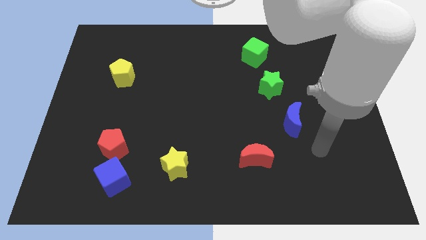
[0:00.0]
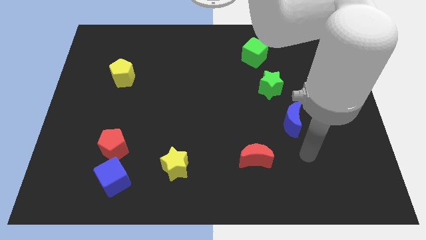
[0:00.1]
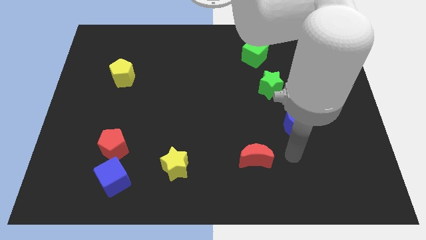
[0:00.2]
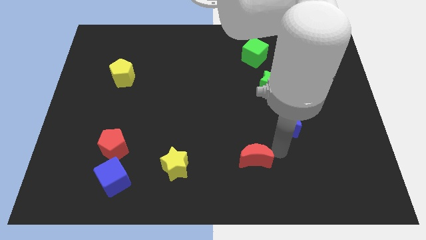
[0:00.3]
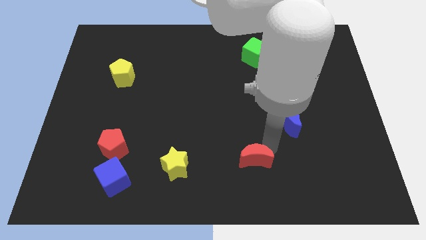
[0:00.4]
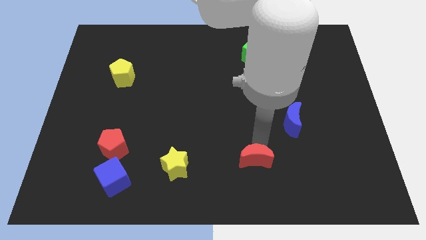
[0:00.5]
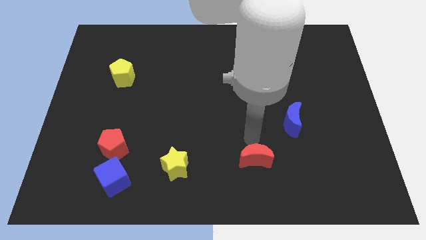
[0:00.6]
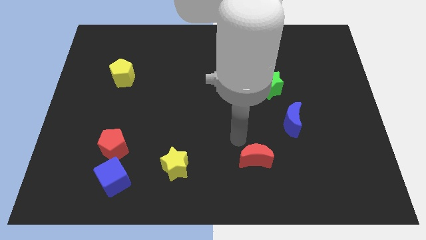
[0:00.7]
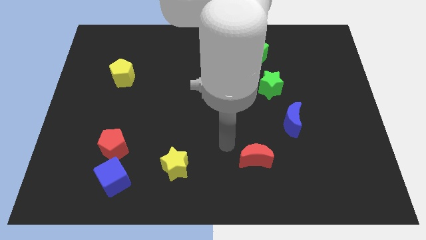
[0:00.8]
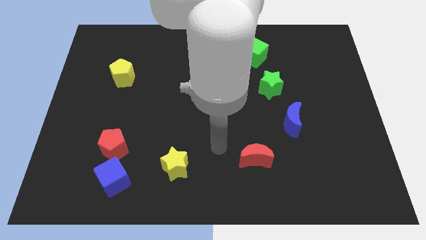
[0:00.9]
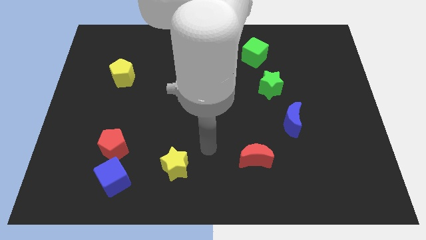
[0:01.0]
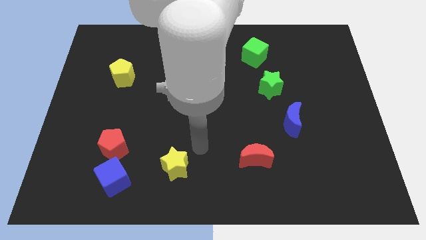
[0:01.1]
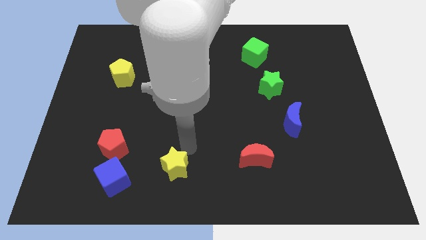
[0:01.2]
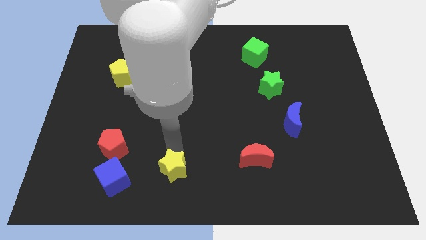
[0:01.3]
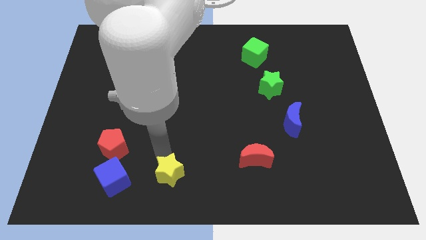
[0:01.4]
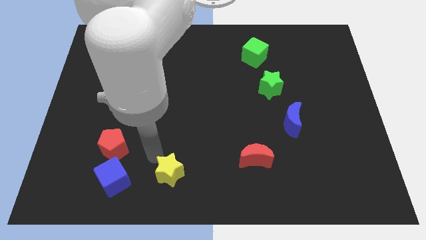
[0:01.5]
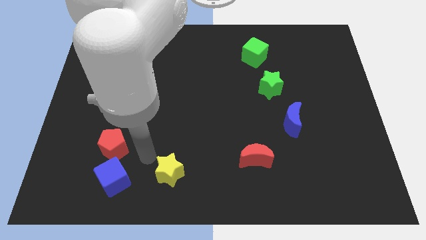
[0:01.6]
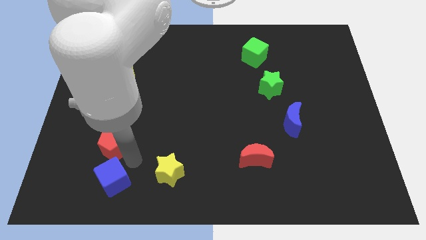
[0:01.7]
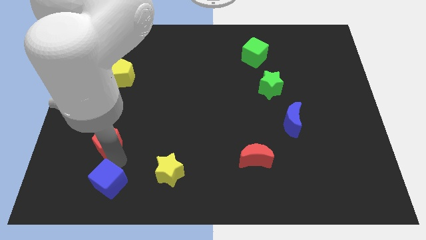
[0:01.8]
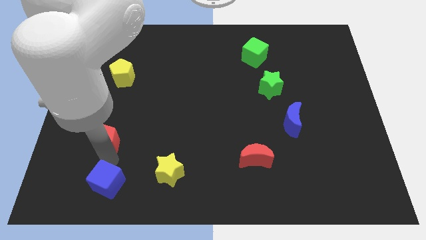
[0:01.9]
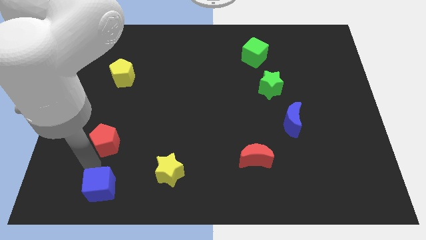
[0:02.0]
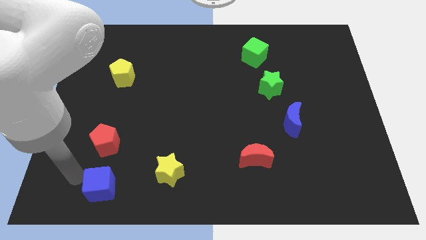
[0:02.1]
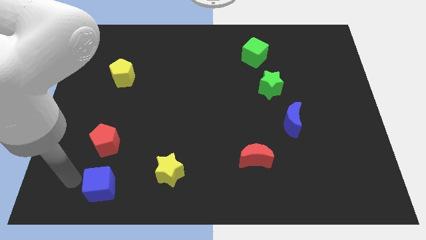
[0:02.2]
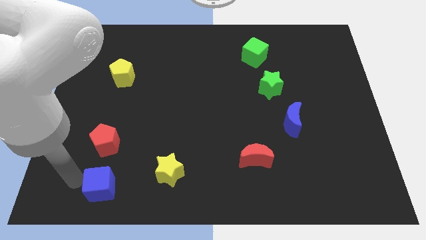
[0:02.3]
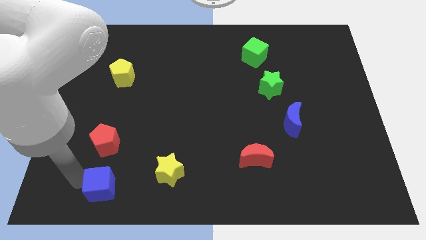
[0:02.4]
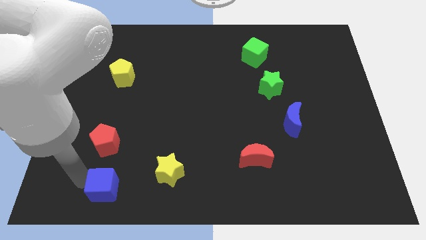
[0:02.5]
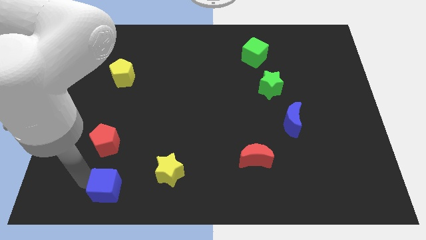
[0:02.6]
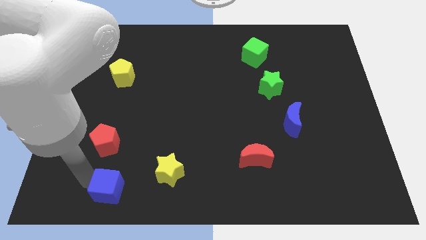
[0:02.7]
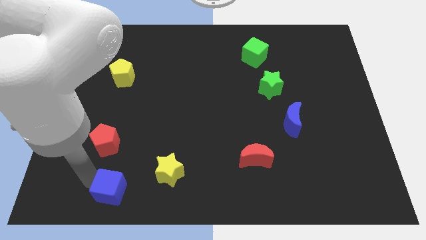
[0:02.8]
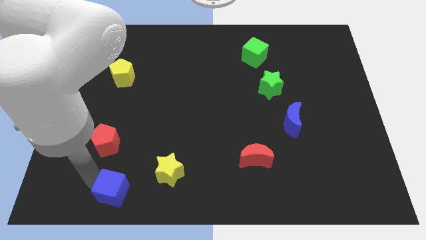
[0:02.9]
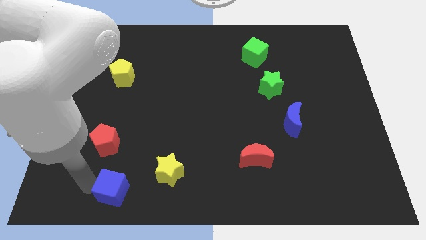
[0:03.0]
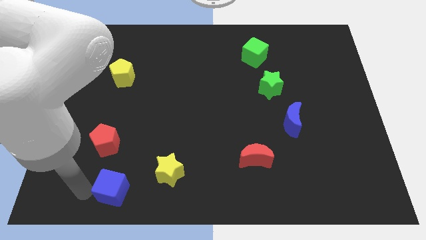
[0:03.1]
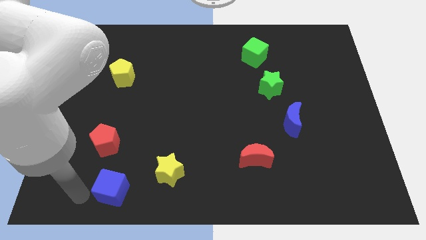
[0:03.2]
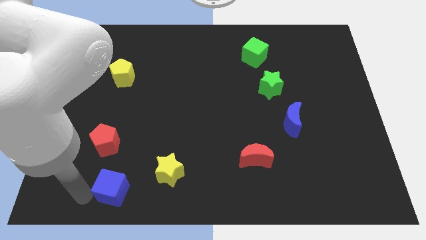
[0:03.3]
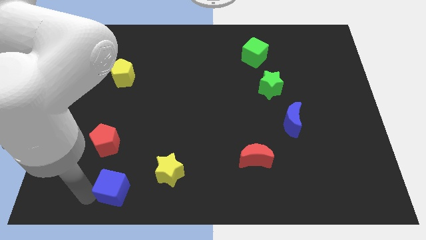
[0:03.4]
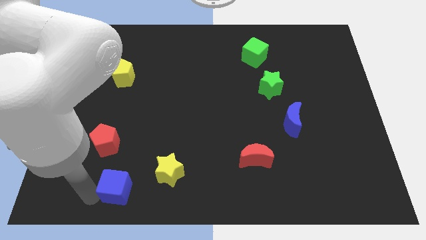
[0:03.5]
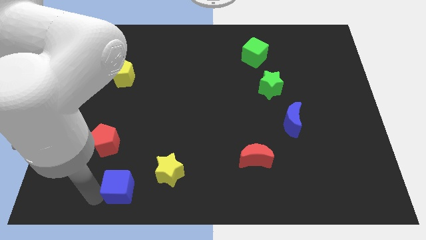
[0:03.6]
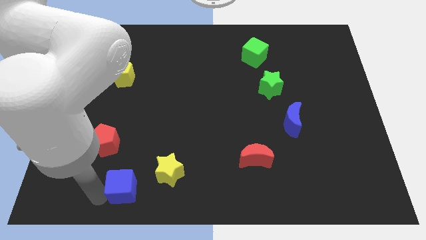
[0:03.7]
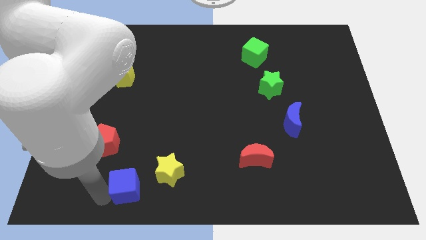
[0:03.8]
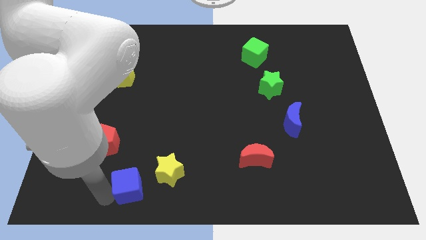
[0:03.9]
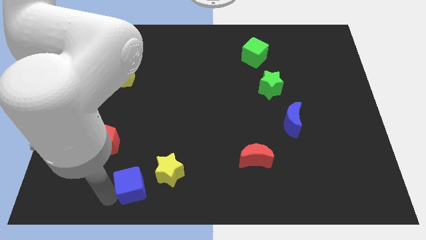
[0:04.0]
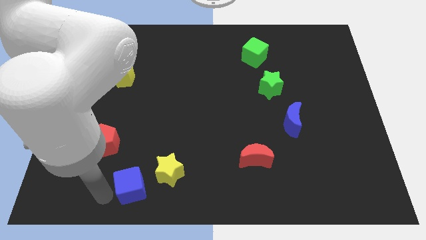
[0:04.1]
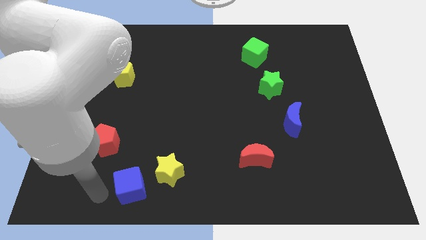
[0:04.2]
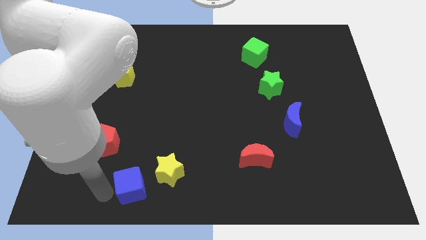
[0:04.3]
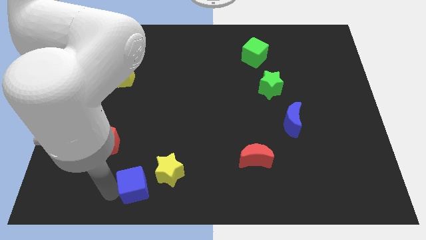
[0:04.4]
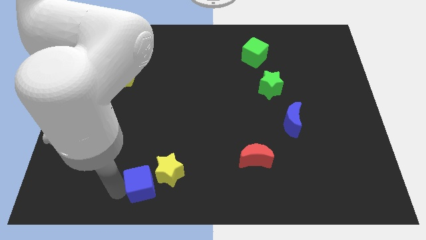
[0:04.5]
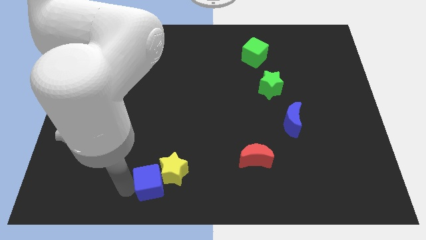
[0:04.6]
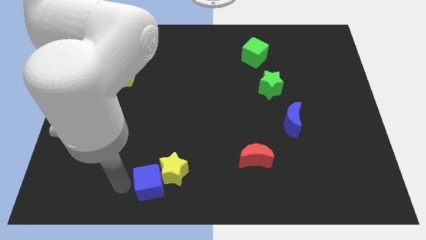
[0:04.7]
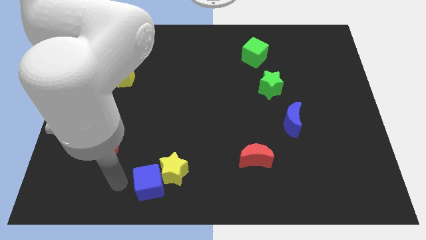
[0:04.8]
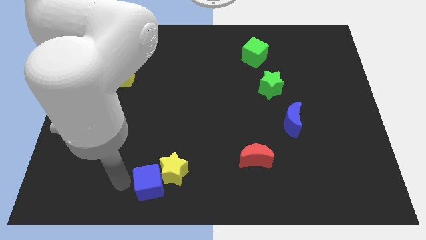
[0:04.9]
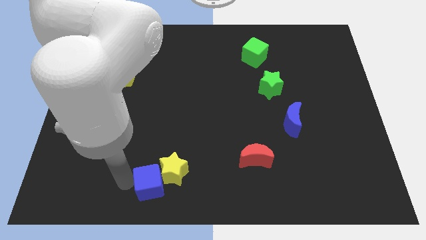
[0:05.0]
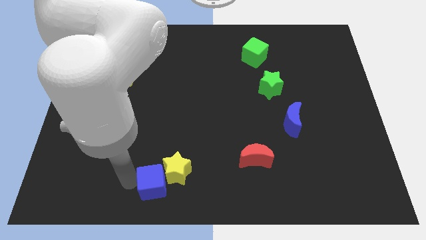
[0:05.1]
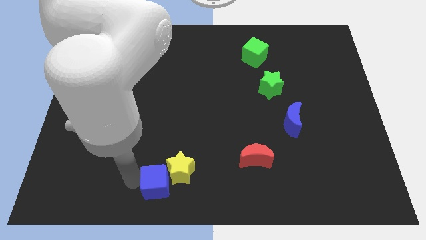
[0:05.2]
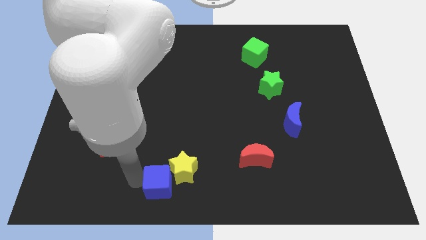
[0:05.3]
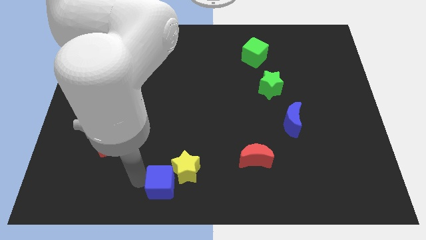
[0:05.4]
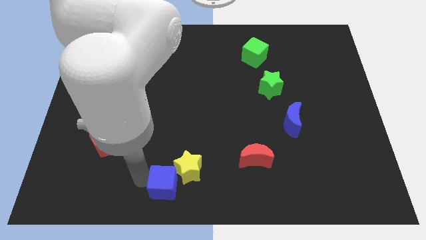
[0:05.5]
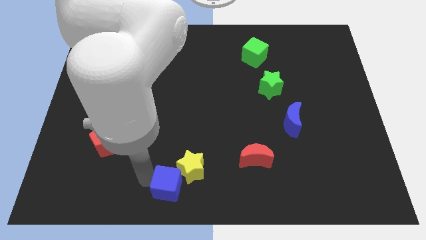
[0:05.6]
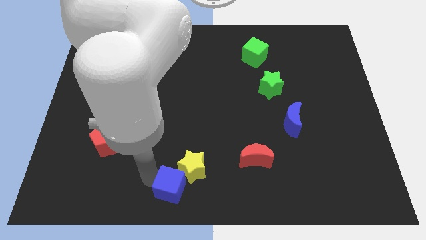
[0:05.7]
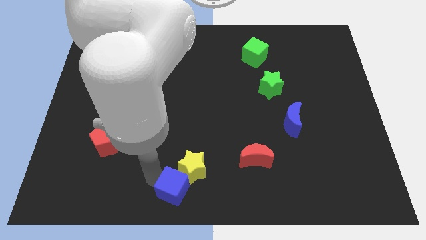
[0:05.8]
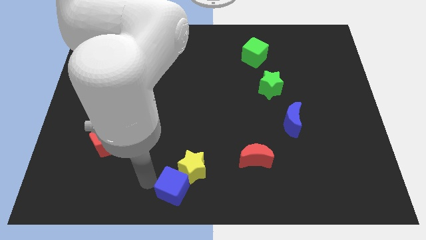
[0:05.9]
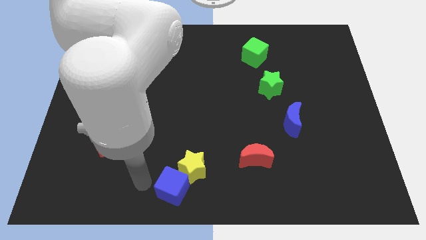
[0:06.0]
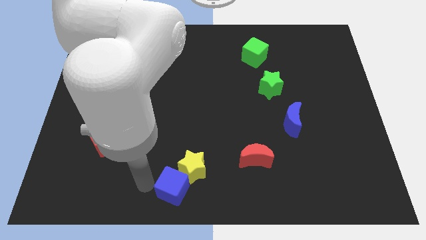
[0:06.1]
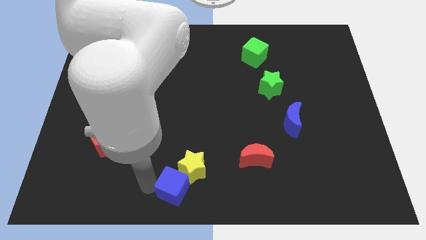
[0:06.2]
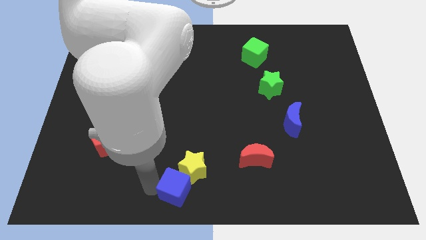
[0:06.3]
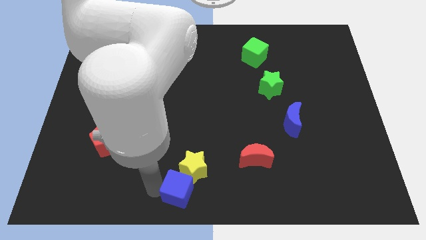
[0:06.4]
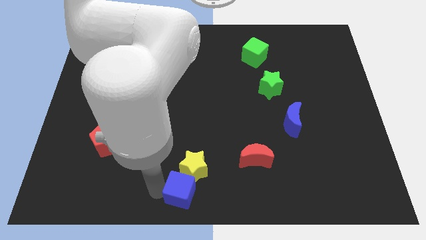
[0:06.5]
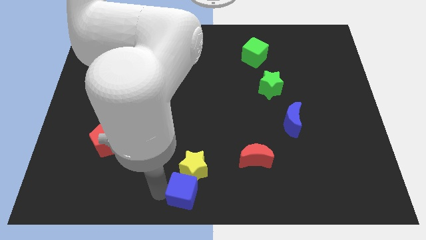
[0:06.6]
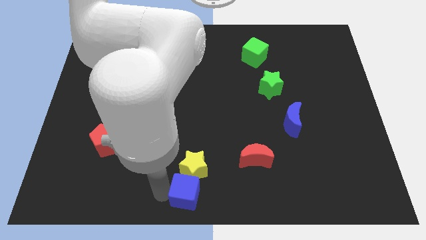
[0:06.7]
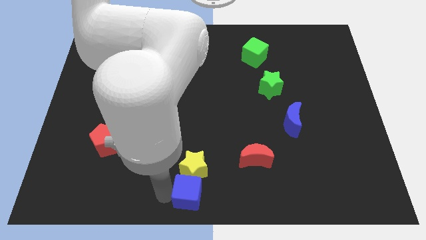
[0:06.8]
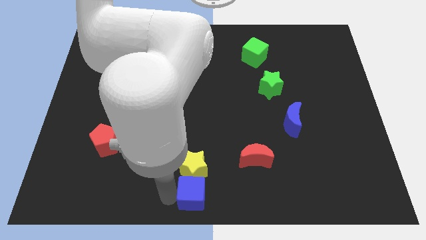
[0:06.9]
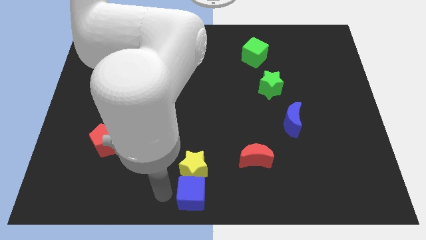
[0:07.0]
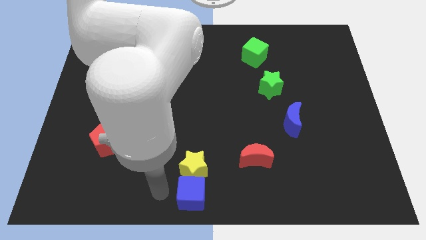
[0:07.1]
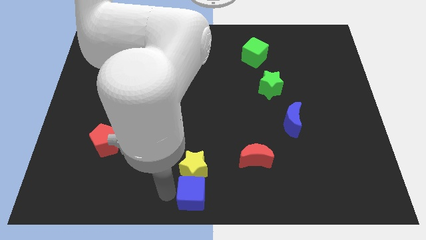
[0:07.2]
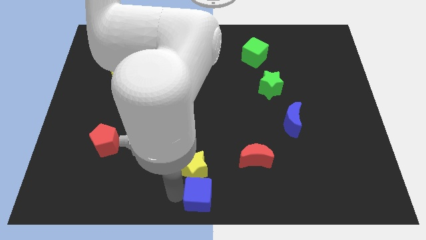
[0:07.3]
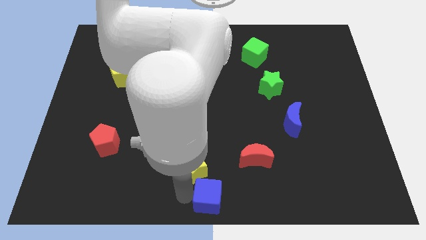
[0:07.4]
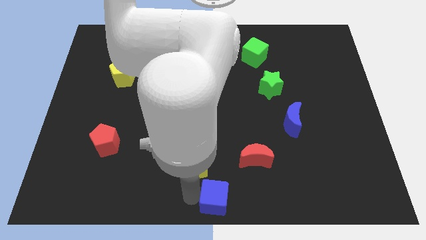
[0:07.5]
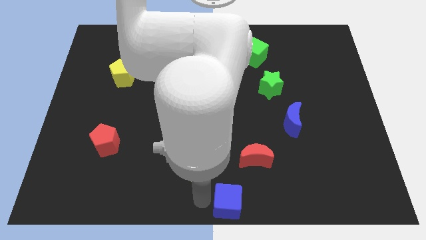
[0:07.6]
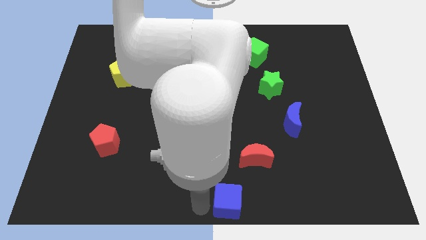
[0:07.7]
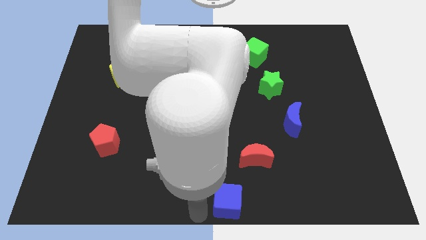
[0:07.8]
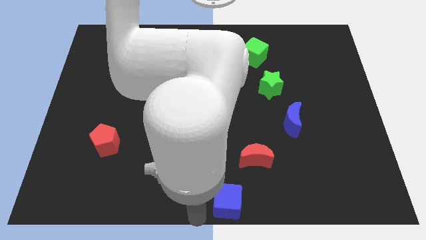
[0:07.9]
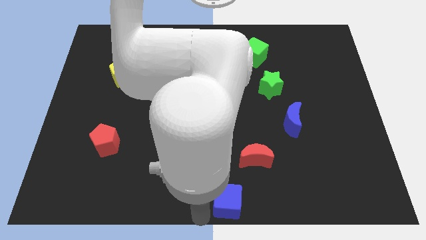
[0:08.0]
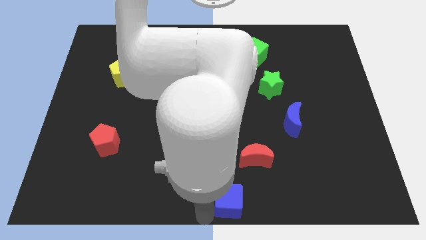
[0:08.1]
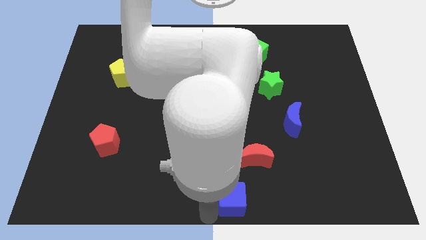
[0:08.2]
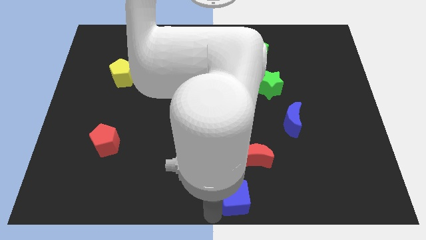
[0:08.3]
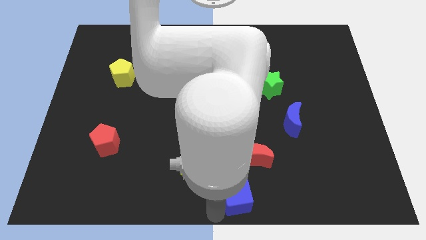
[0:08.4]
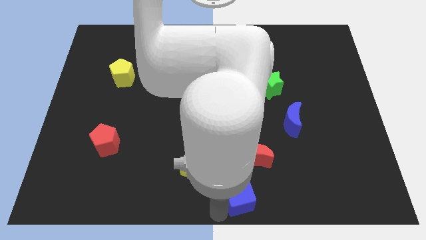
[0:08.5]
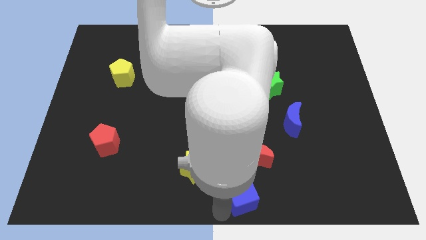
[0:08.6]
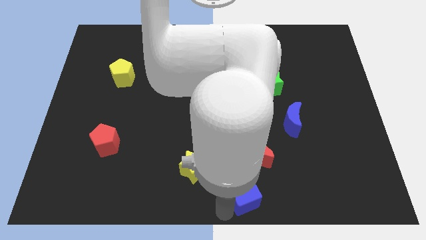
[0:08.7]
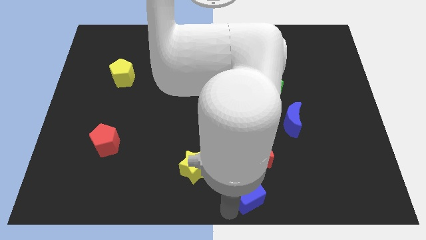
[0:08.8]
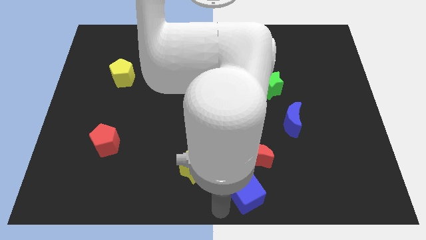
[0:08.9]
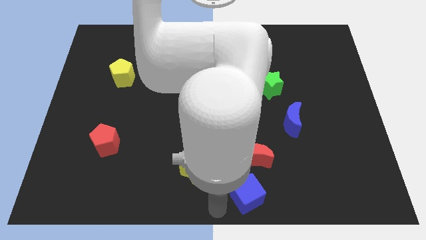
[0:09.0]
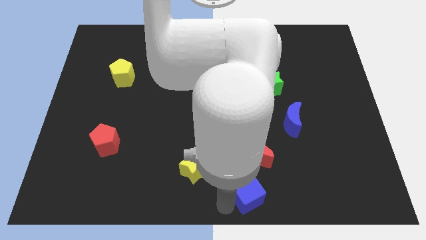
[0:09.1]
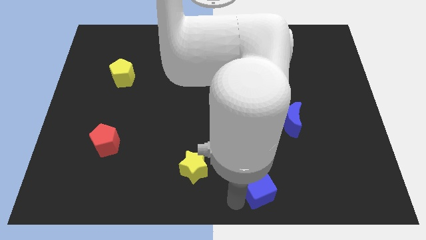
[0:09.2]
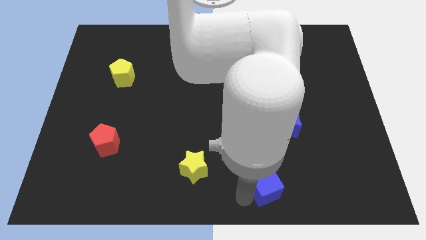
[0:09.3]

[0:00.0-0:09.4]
move the blue cube to the bottom right of the red moon
